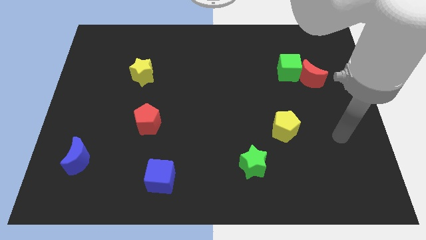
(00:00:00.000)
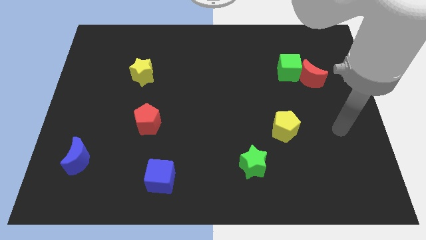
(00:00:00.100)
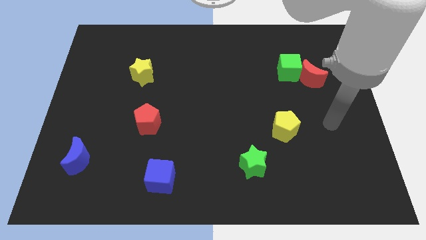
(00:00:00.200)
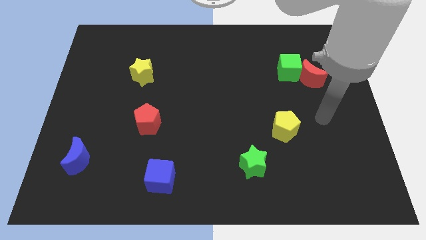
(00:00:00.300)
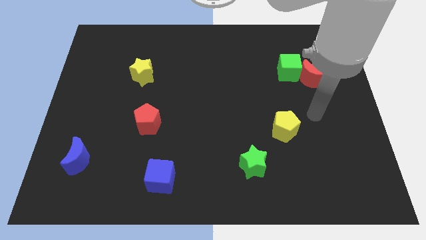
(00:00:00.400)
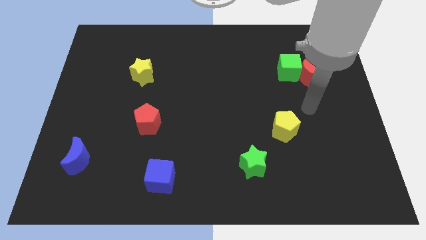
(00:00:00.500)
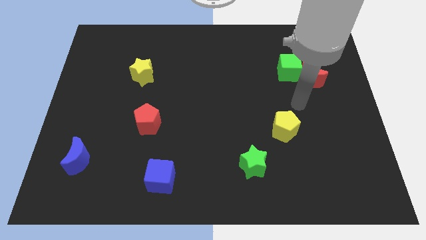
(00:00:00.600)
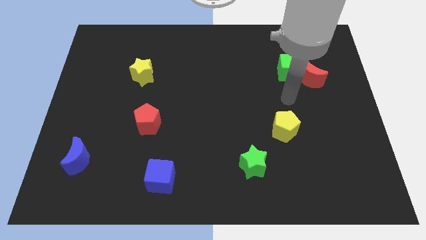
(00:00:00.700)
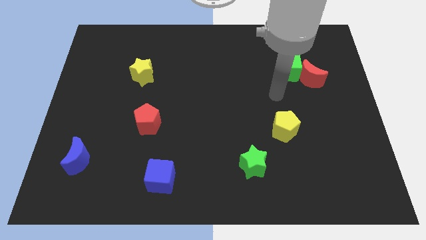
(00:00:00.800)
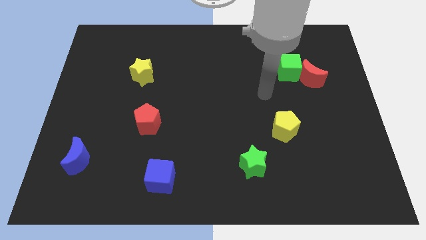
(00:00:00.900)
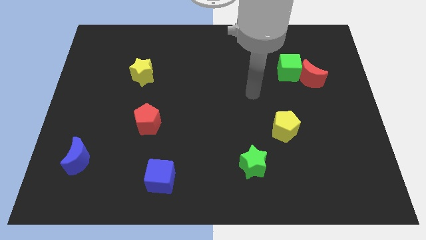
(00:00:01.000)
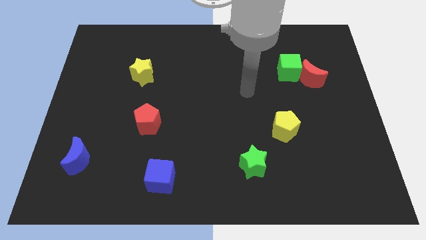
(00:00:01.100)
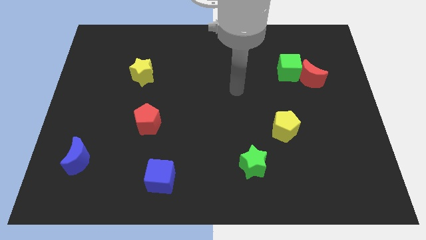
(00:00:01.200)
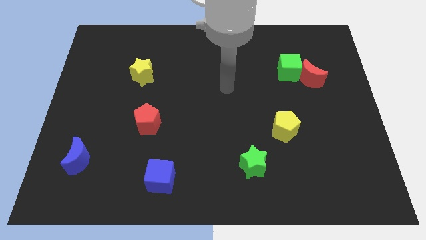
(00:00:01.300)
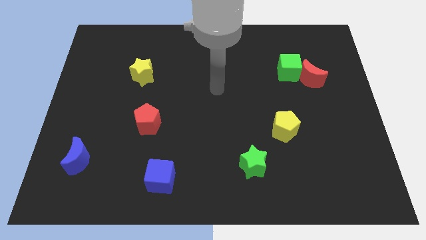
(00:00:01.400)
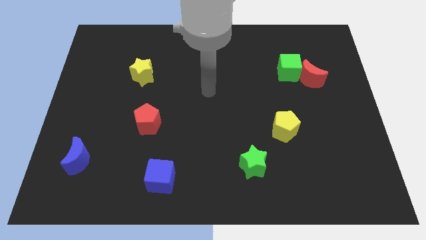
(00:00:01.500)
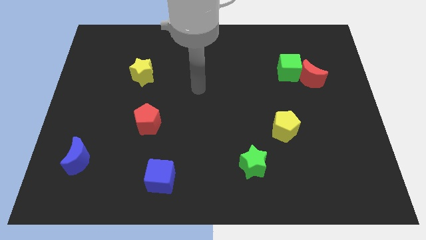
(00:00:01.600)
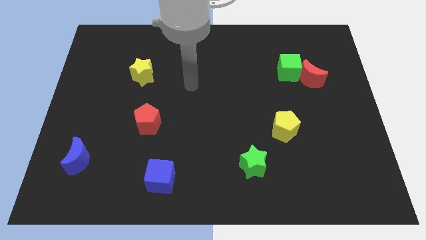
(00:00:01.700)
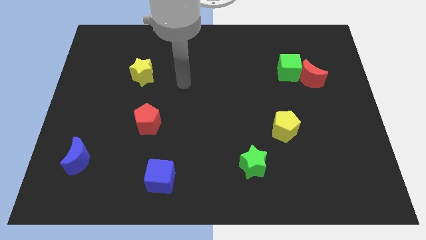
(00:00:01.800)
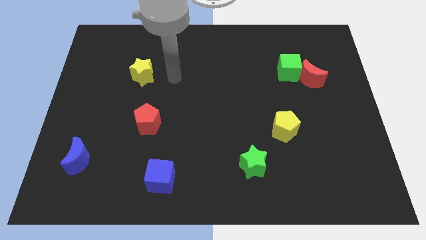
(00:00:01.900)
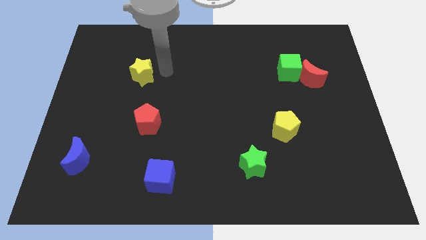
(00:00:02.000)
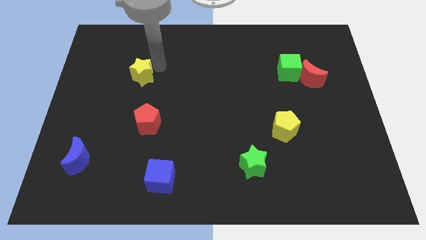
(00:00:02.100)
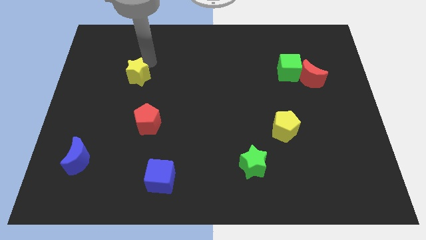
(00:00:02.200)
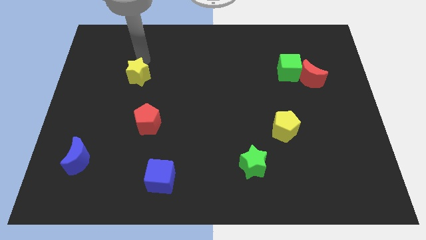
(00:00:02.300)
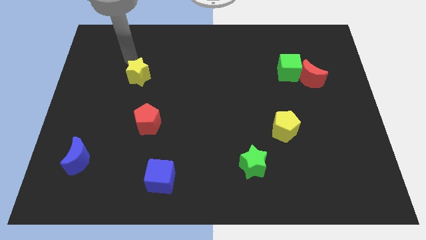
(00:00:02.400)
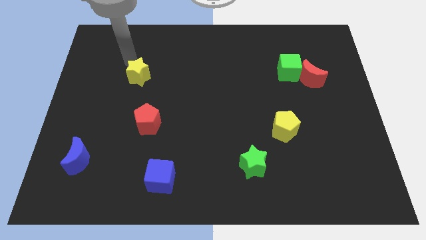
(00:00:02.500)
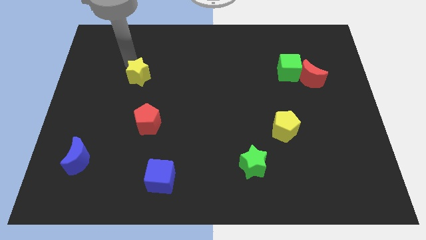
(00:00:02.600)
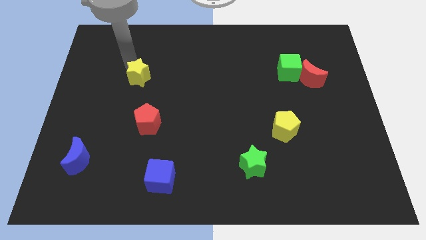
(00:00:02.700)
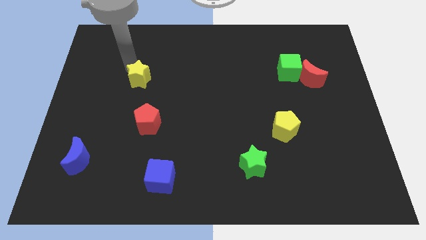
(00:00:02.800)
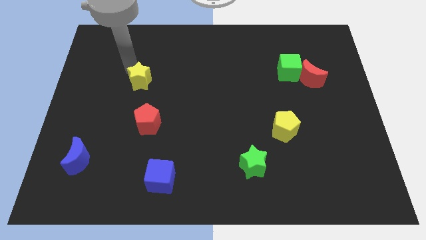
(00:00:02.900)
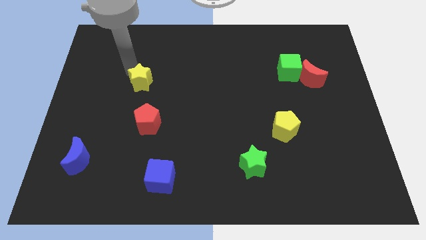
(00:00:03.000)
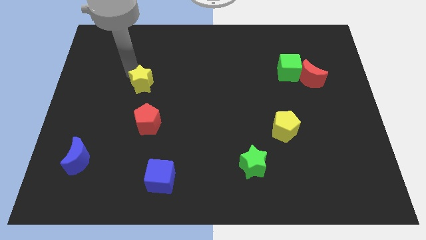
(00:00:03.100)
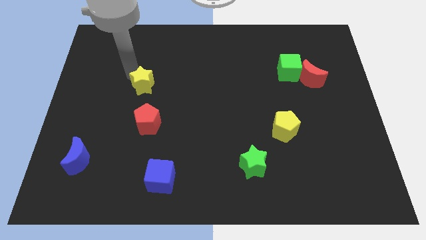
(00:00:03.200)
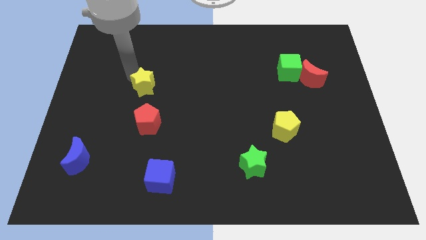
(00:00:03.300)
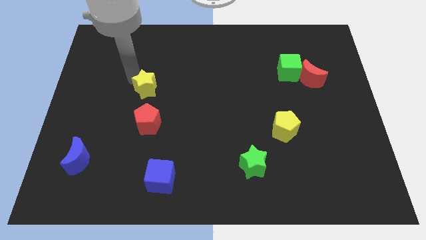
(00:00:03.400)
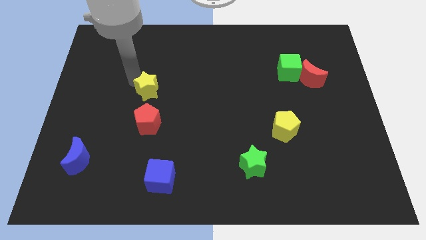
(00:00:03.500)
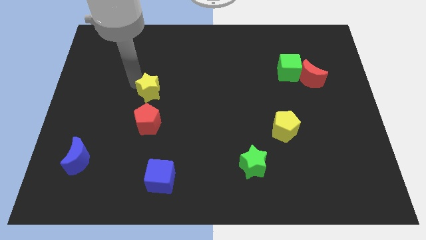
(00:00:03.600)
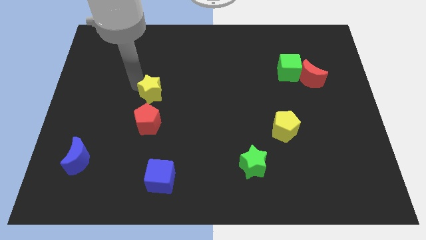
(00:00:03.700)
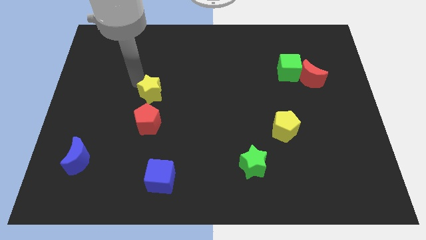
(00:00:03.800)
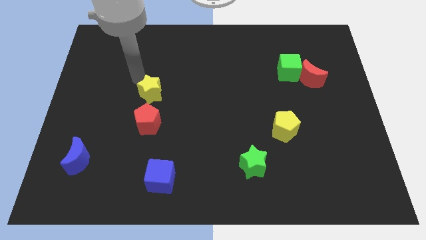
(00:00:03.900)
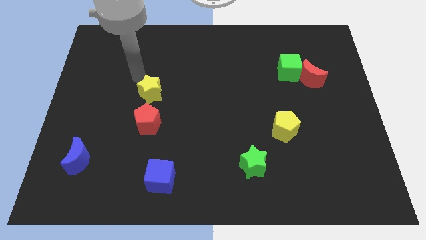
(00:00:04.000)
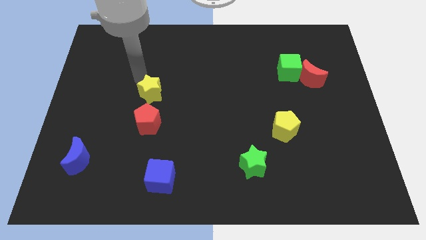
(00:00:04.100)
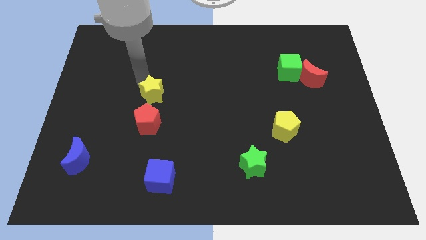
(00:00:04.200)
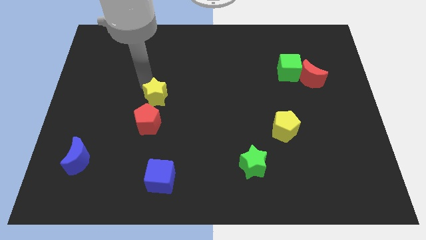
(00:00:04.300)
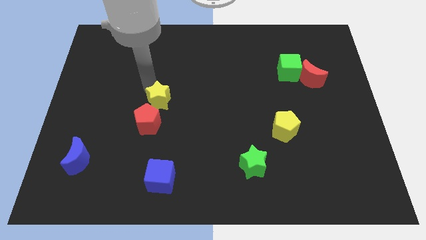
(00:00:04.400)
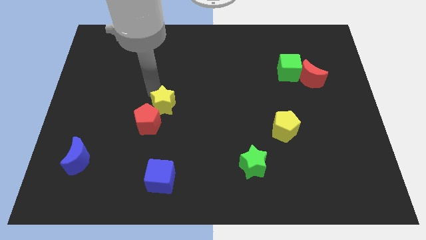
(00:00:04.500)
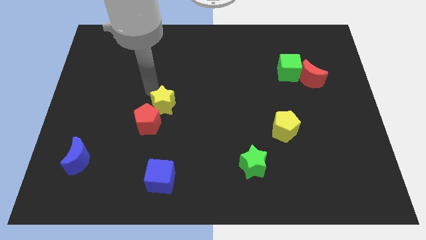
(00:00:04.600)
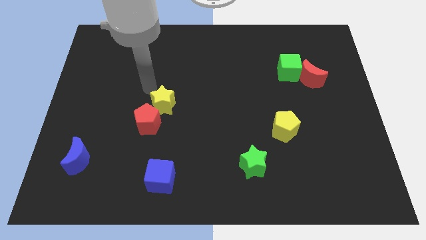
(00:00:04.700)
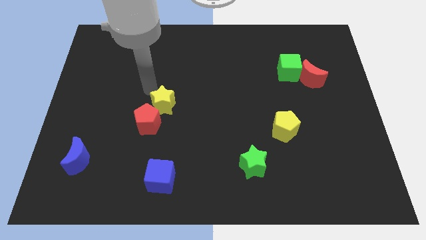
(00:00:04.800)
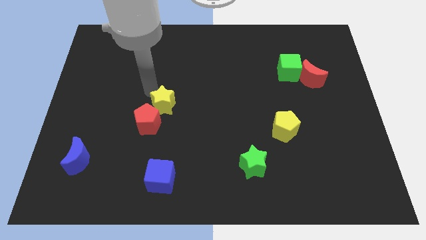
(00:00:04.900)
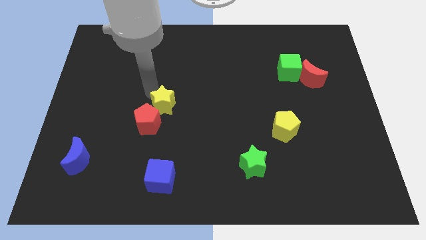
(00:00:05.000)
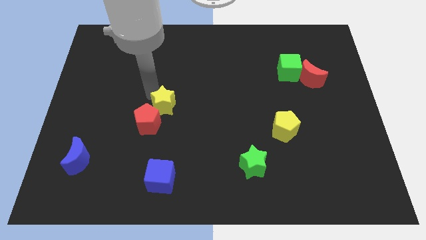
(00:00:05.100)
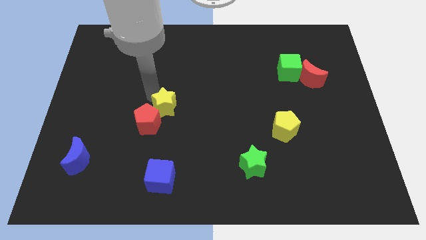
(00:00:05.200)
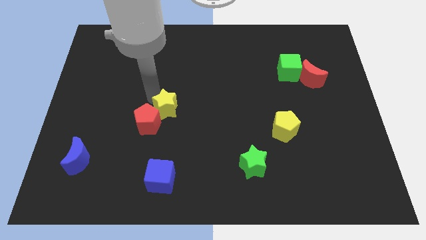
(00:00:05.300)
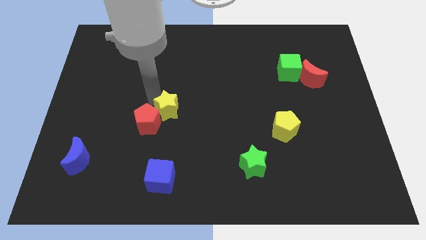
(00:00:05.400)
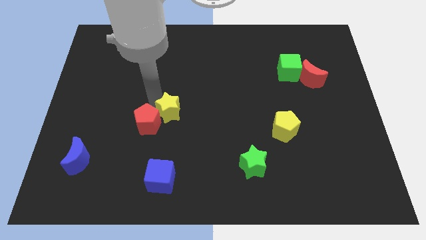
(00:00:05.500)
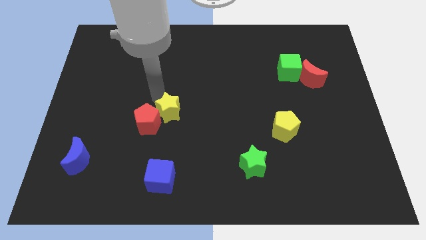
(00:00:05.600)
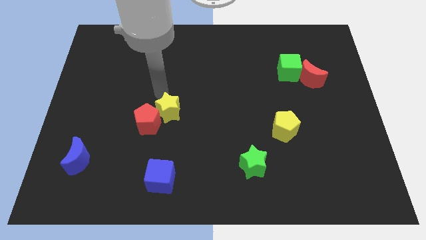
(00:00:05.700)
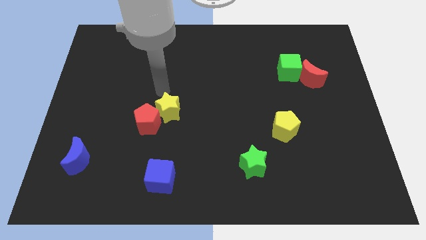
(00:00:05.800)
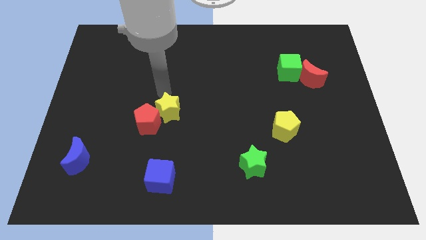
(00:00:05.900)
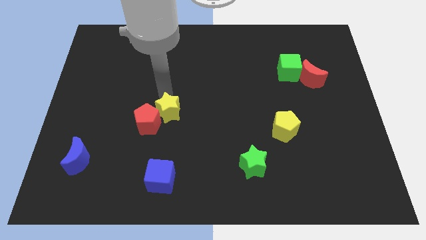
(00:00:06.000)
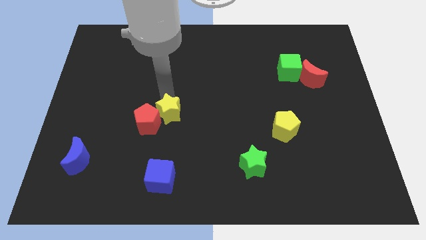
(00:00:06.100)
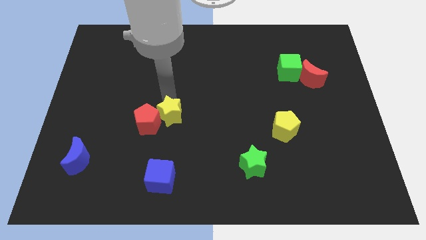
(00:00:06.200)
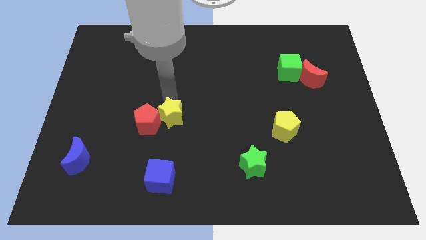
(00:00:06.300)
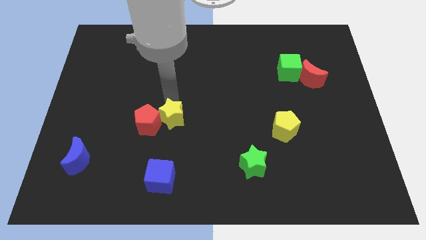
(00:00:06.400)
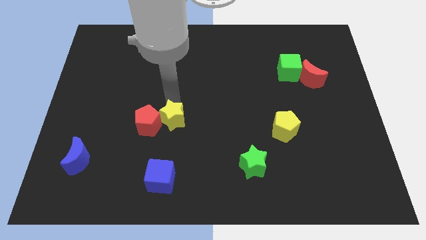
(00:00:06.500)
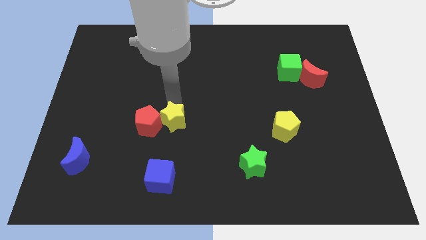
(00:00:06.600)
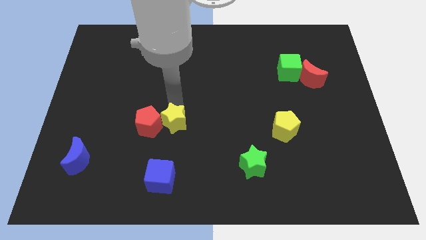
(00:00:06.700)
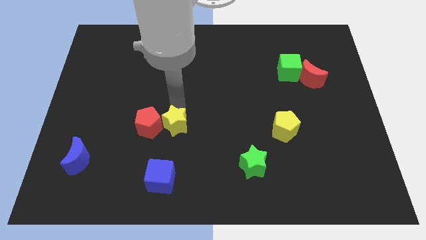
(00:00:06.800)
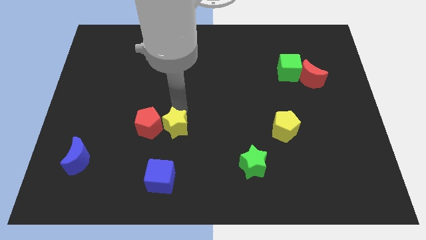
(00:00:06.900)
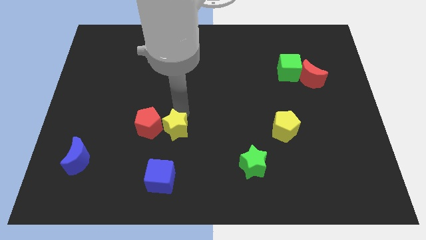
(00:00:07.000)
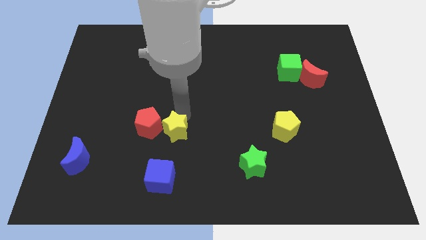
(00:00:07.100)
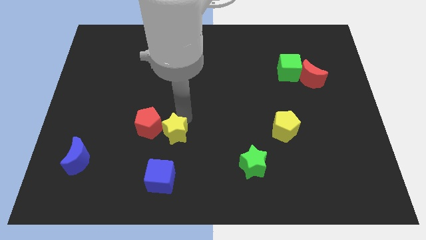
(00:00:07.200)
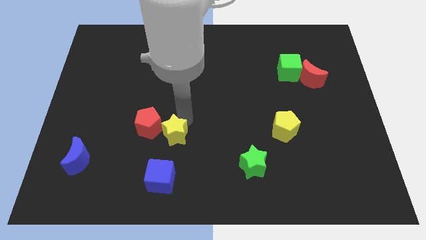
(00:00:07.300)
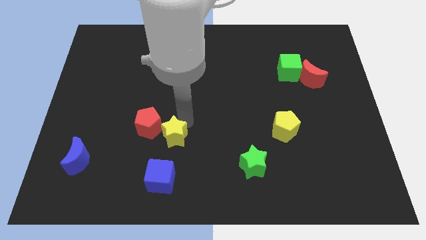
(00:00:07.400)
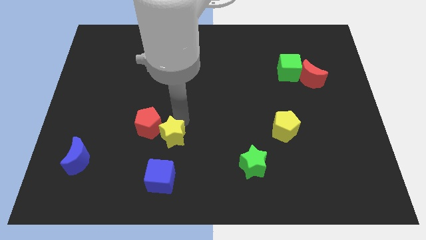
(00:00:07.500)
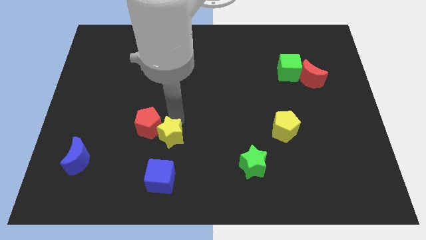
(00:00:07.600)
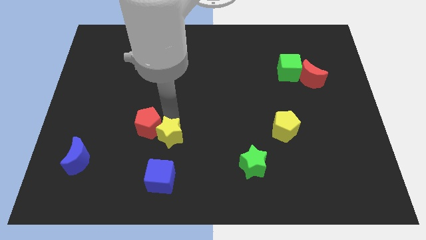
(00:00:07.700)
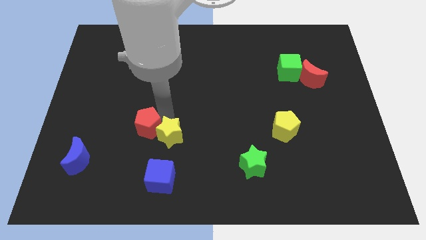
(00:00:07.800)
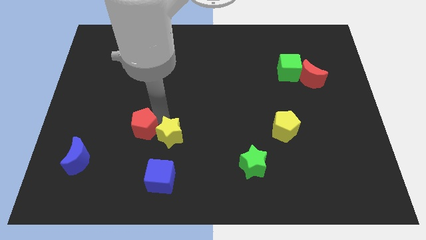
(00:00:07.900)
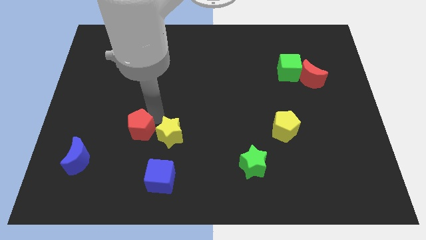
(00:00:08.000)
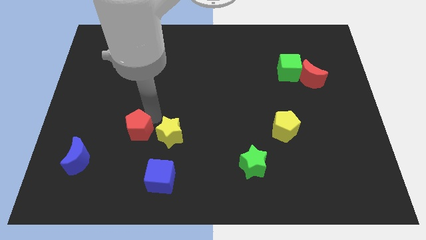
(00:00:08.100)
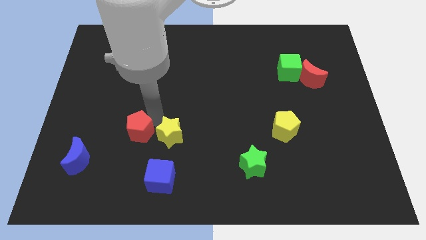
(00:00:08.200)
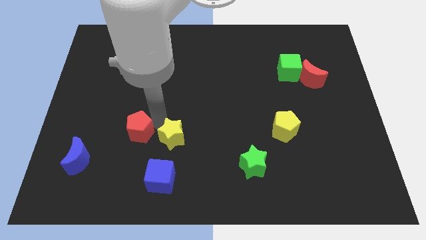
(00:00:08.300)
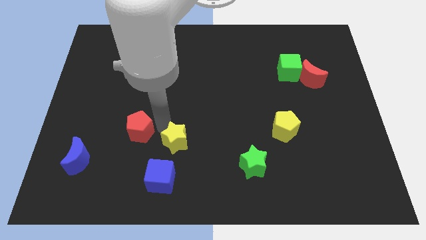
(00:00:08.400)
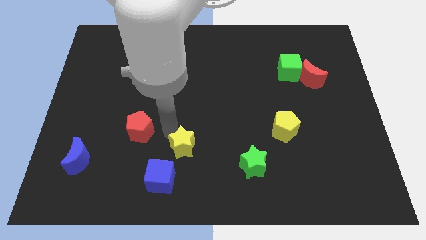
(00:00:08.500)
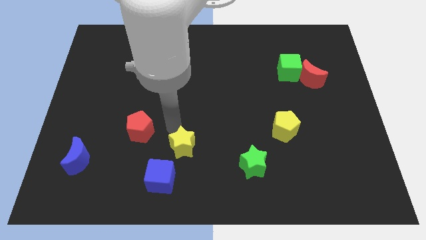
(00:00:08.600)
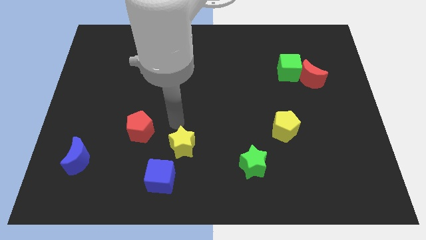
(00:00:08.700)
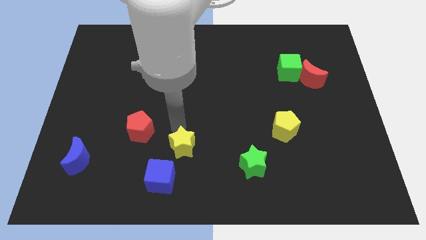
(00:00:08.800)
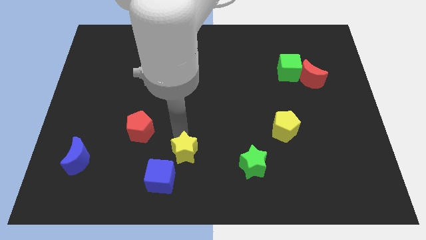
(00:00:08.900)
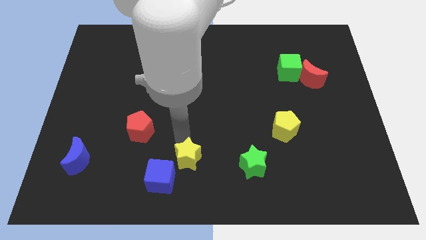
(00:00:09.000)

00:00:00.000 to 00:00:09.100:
slide the yellow star to the bottom side
